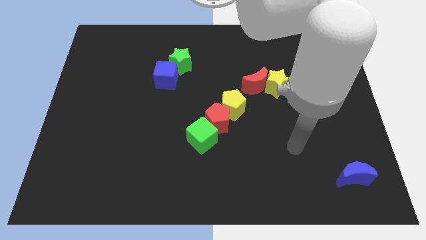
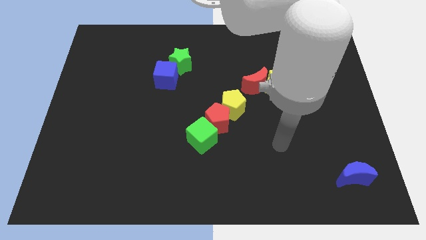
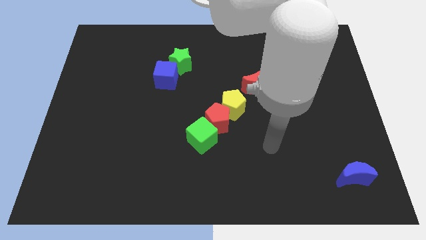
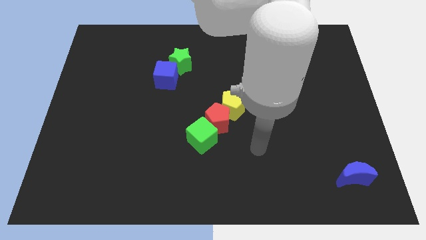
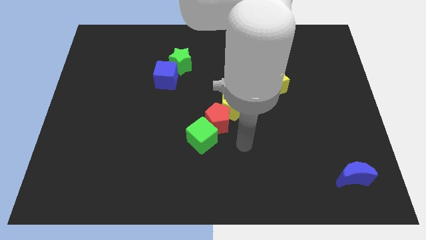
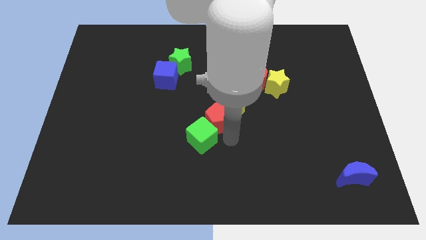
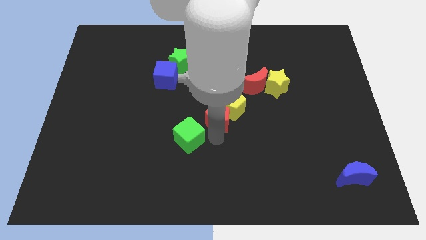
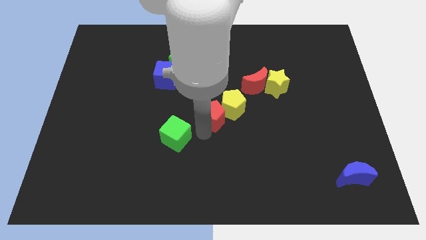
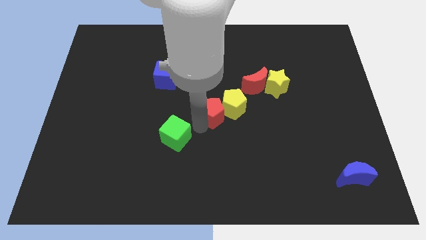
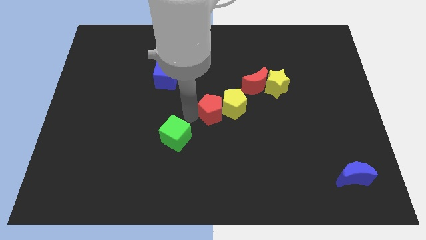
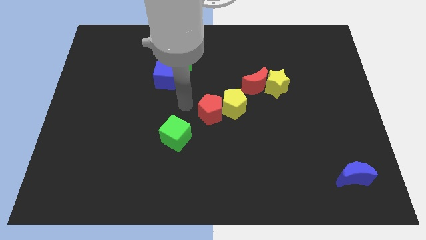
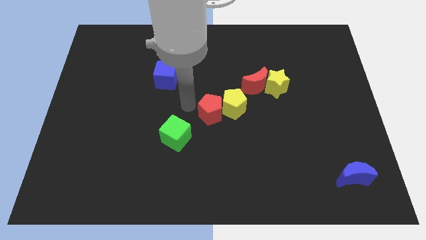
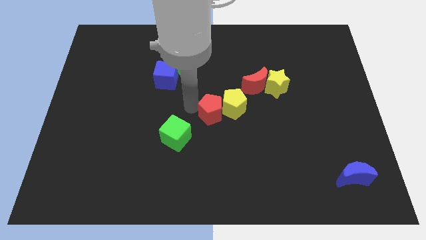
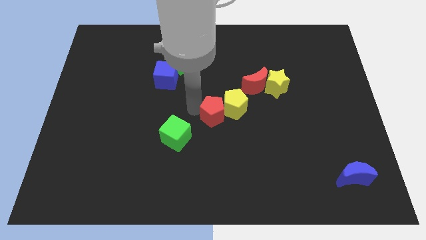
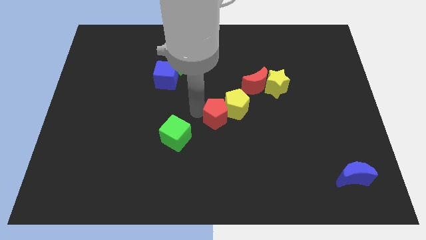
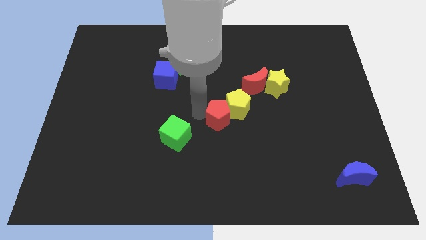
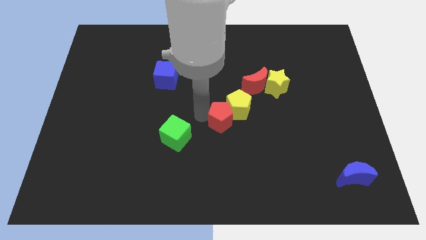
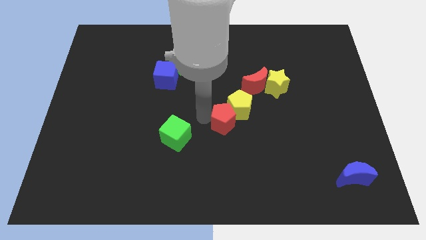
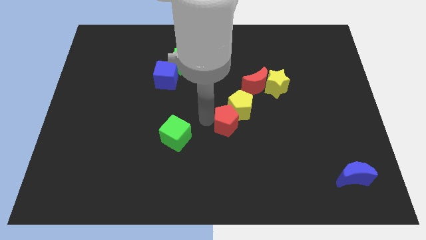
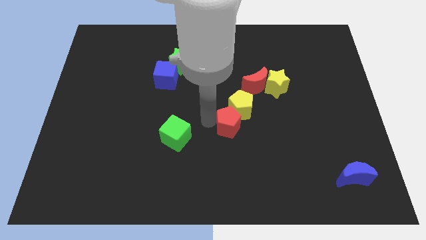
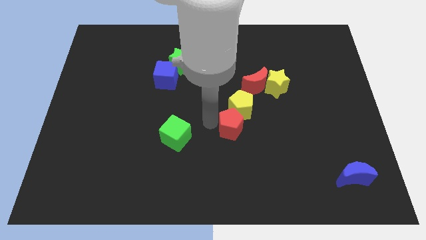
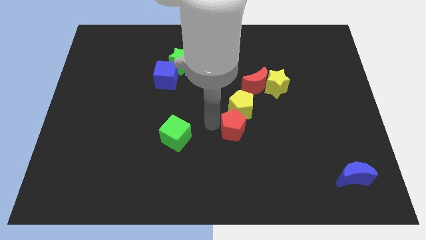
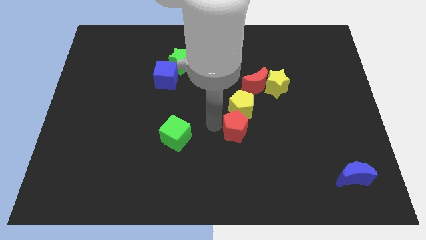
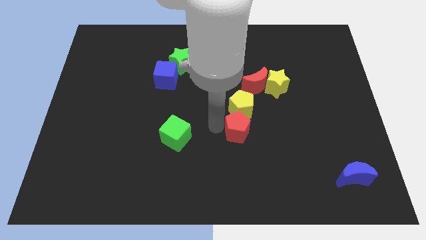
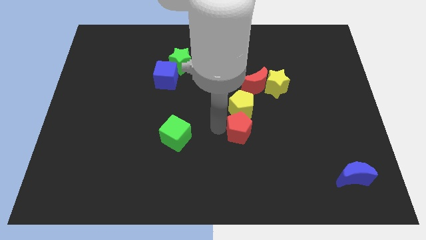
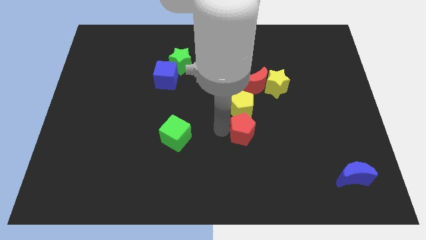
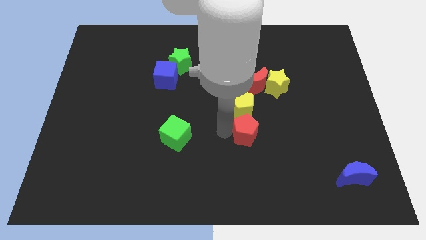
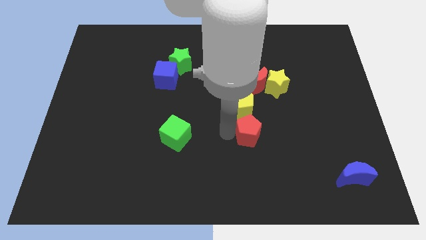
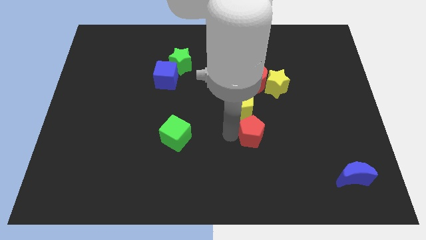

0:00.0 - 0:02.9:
slightly move the red pentagon to the right

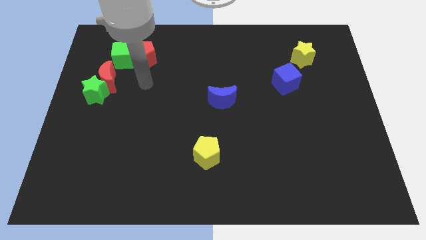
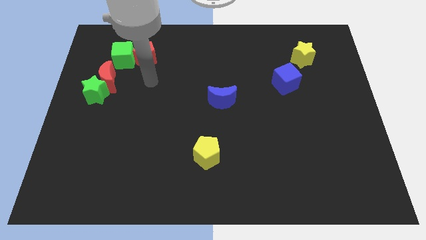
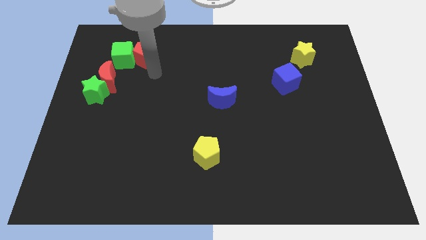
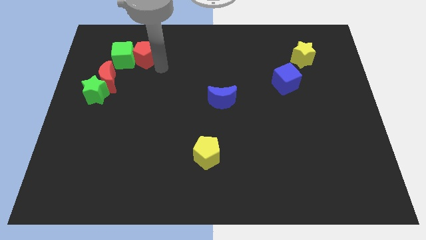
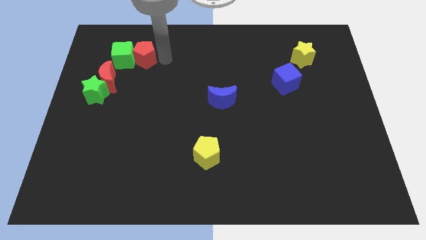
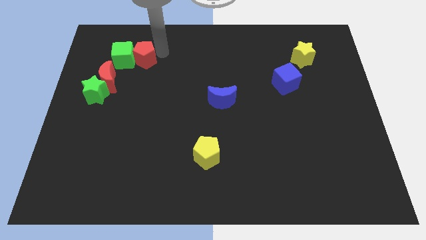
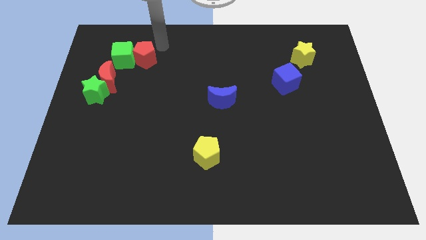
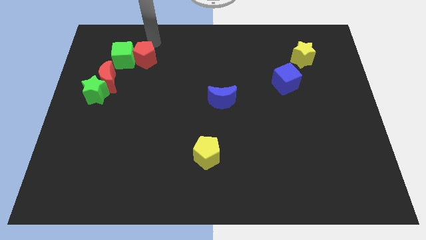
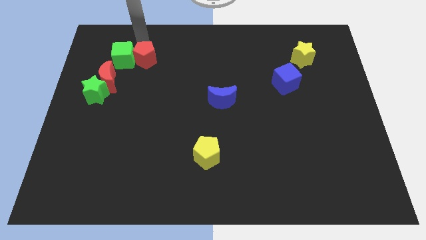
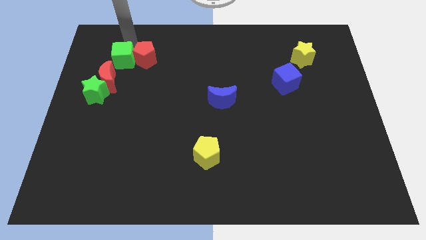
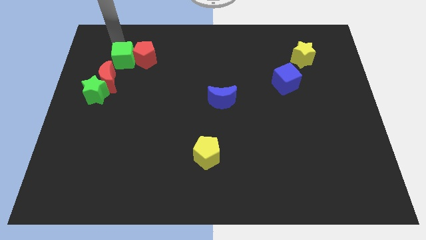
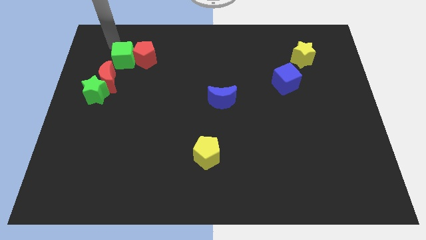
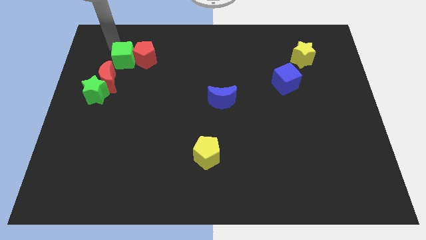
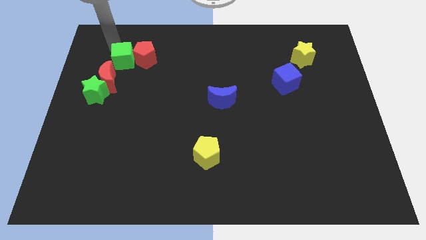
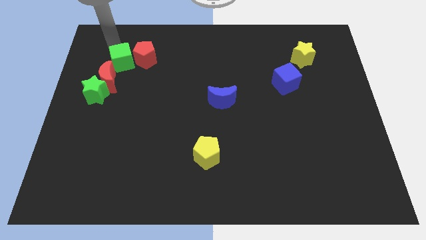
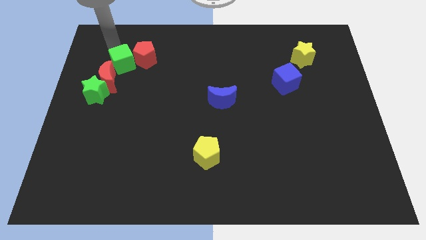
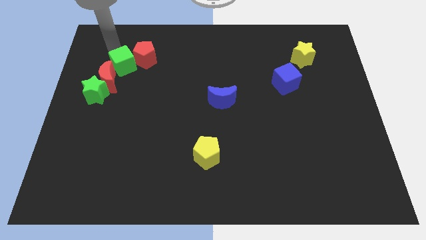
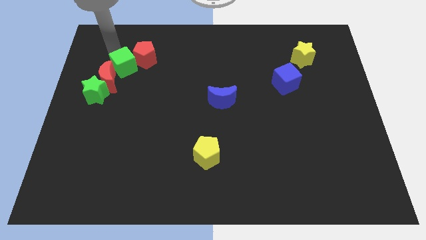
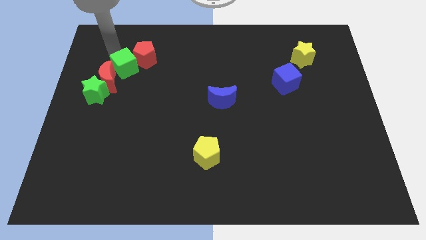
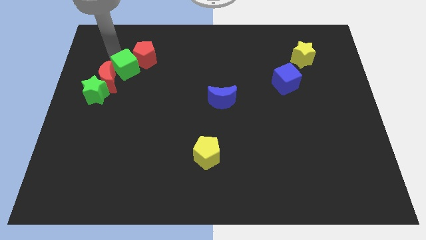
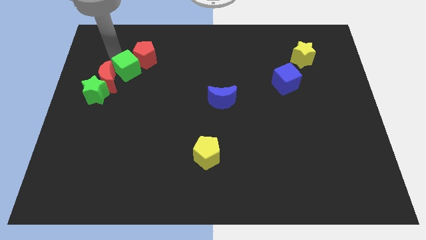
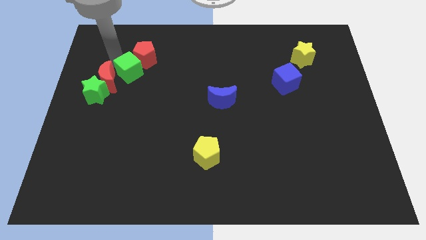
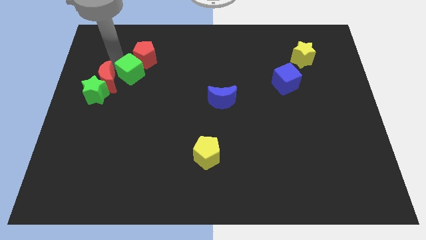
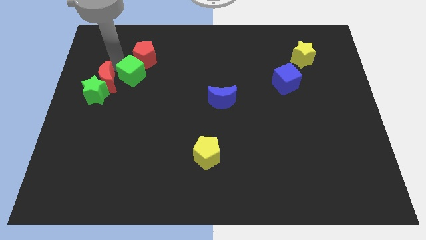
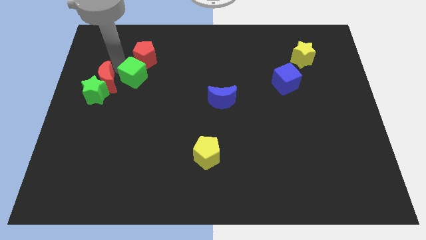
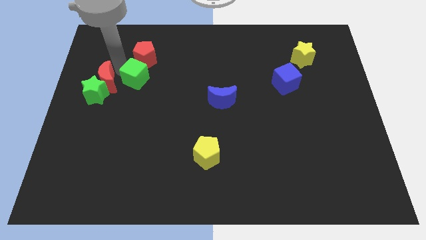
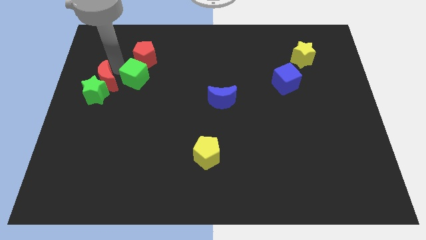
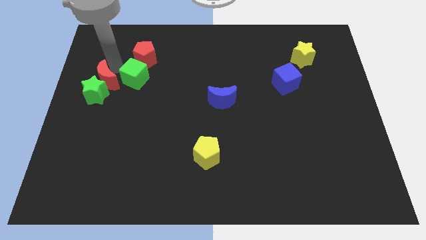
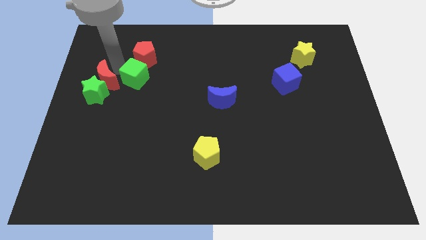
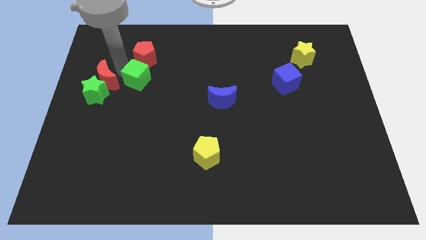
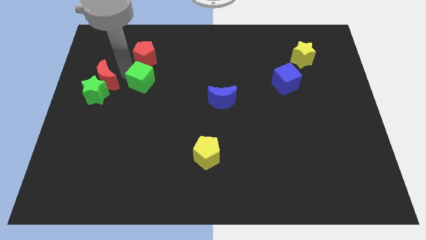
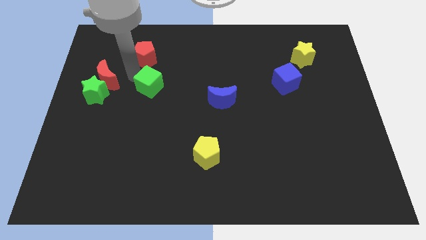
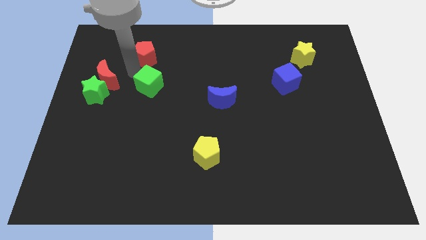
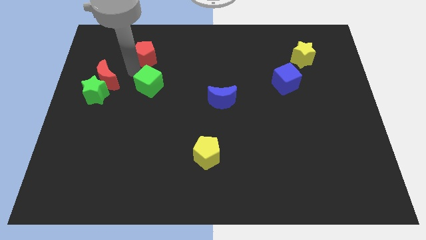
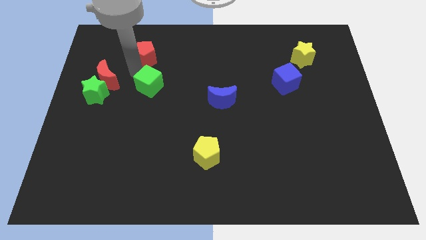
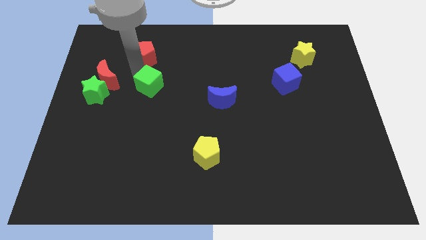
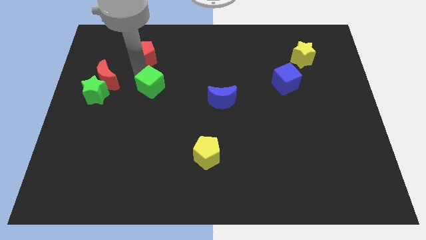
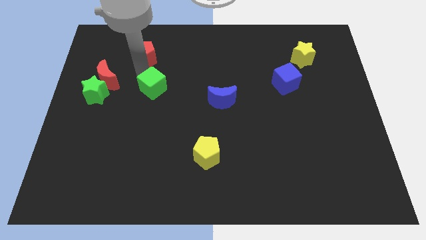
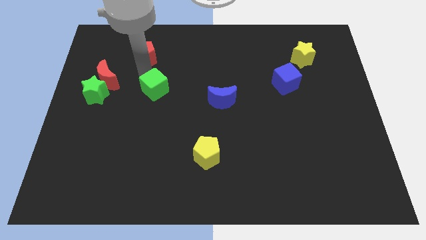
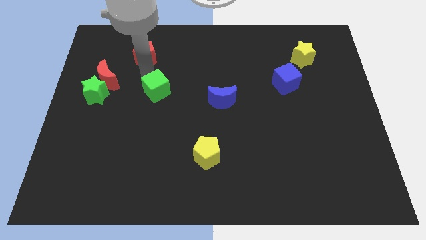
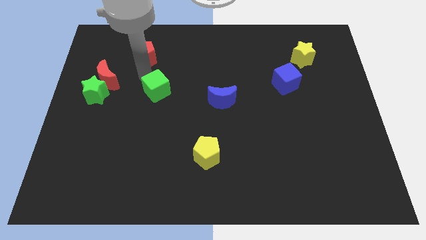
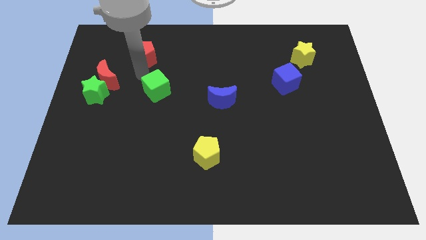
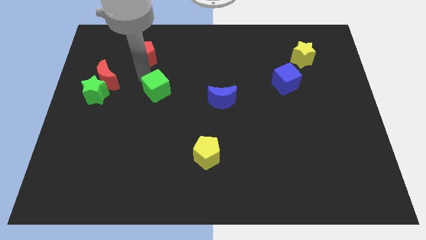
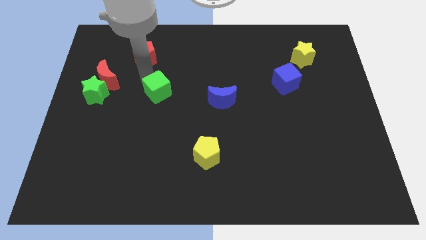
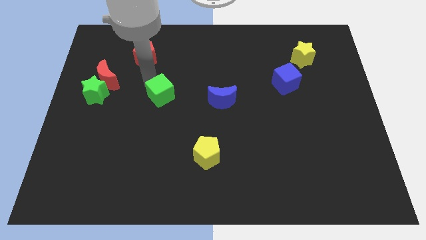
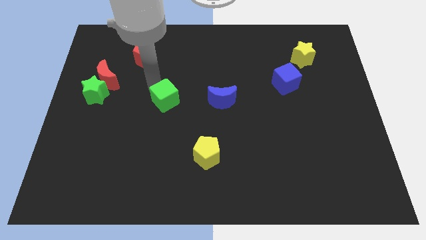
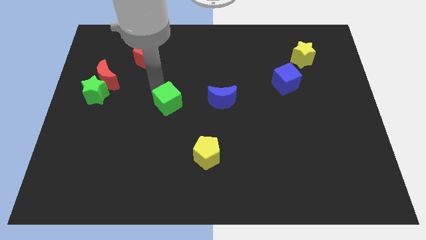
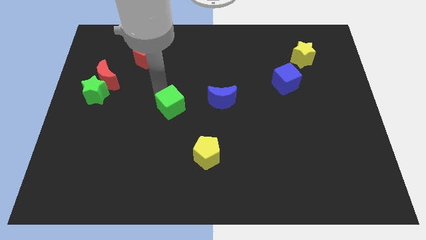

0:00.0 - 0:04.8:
move the green cube diagonally down and right
